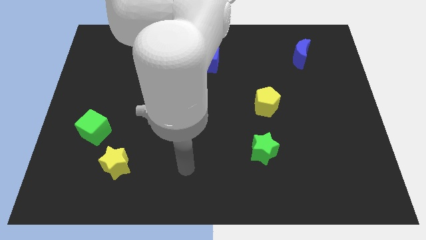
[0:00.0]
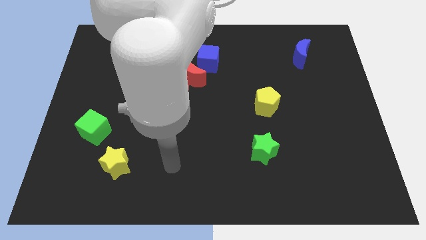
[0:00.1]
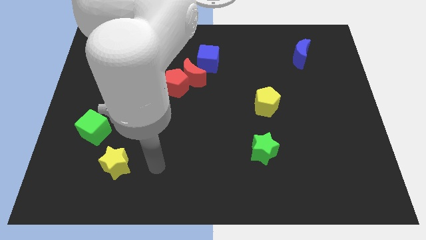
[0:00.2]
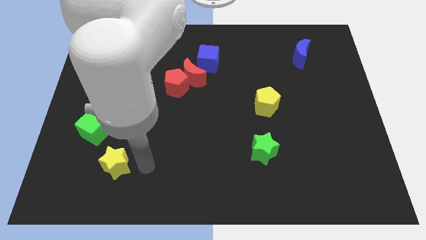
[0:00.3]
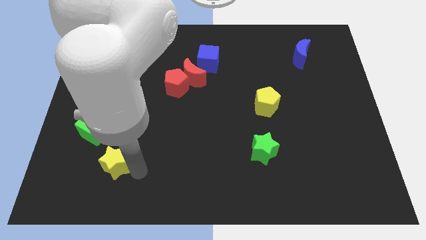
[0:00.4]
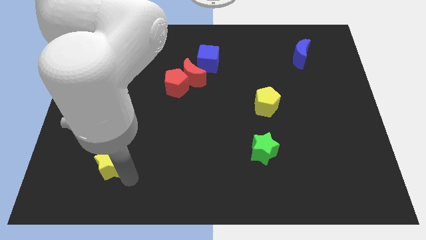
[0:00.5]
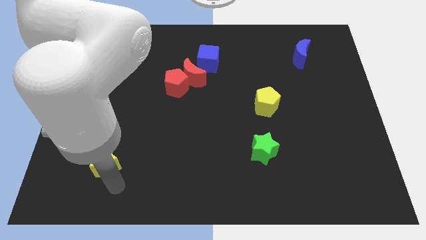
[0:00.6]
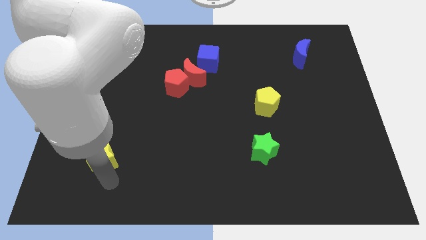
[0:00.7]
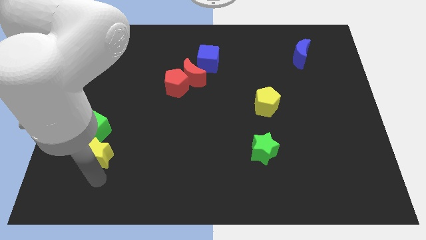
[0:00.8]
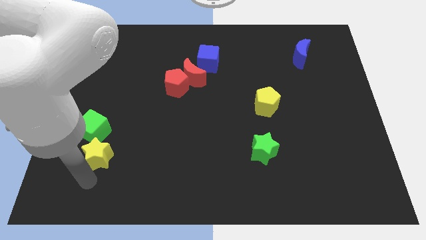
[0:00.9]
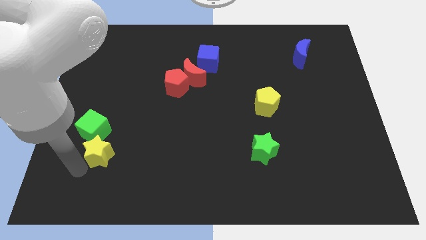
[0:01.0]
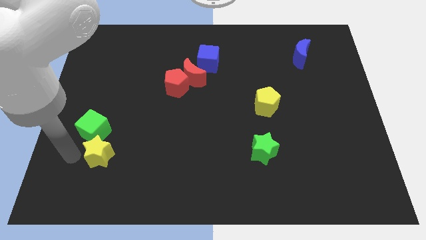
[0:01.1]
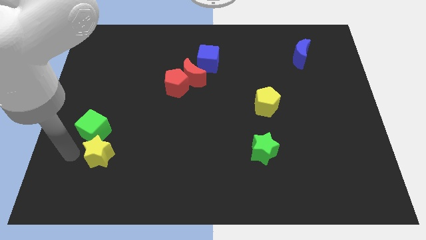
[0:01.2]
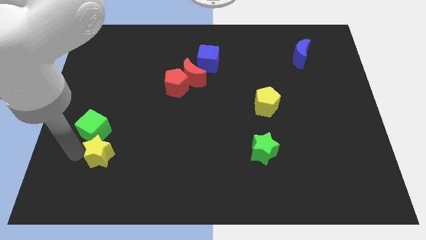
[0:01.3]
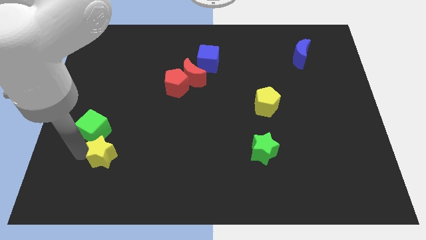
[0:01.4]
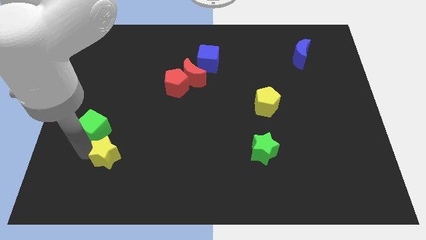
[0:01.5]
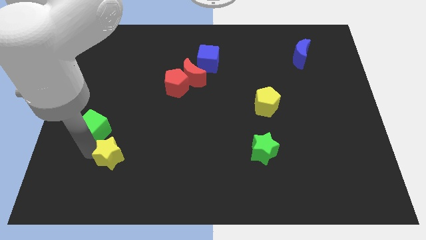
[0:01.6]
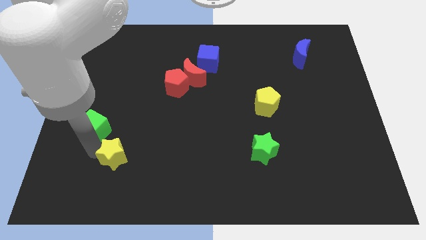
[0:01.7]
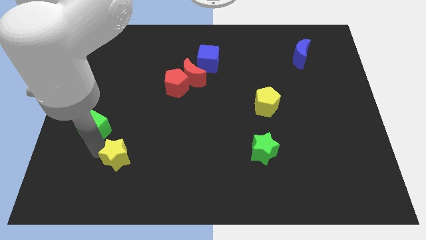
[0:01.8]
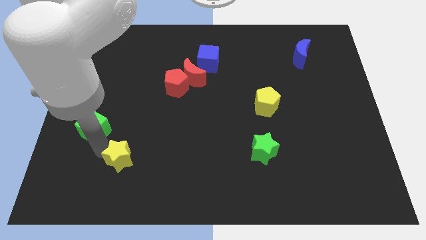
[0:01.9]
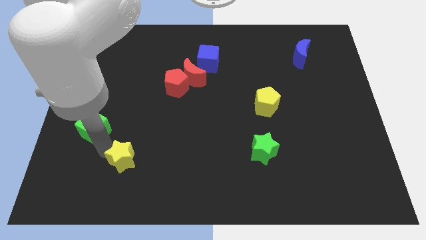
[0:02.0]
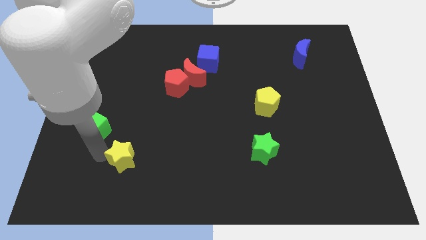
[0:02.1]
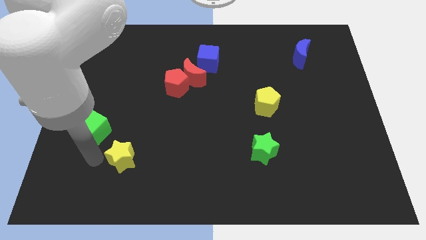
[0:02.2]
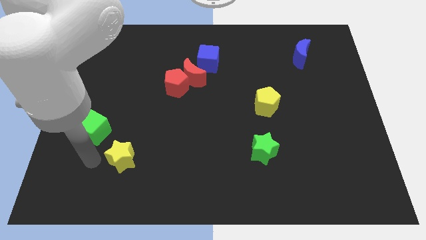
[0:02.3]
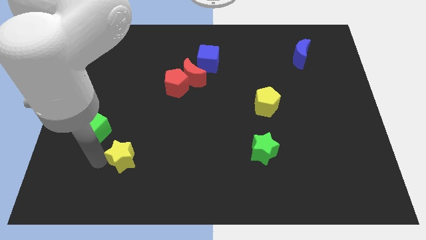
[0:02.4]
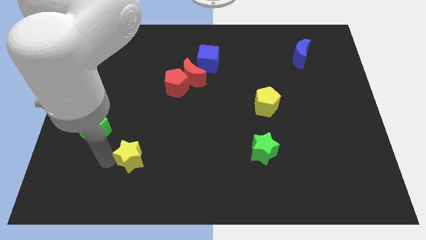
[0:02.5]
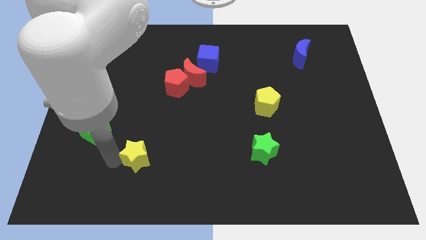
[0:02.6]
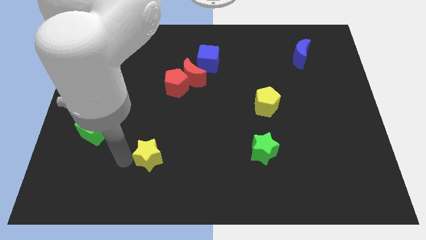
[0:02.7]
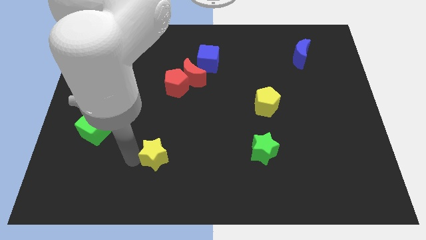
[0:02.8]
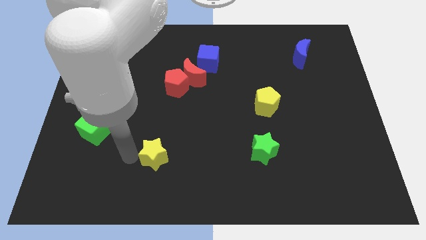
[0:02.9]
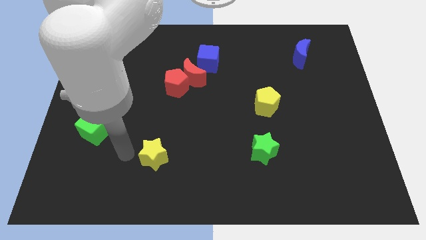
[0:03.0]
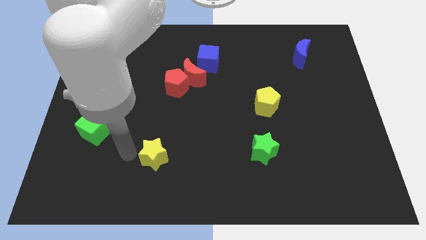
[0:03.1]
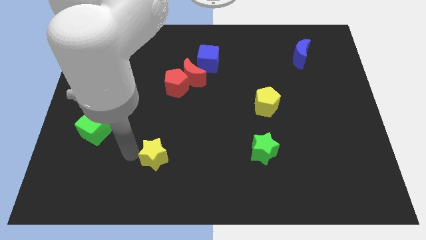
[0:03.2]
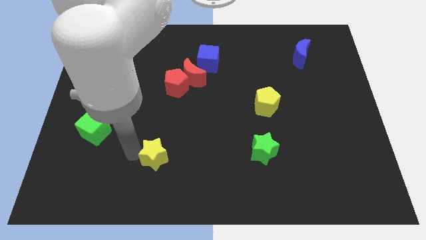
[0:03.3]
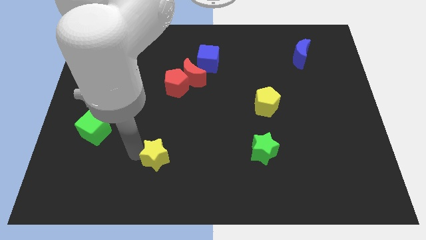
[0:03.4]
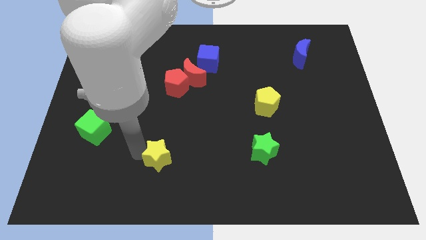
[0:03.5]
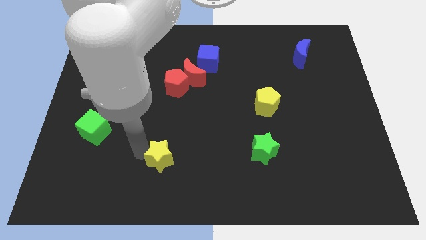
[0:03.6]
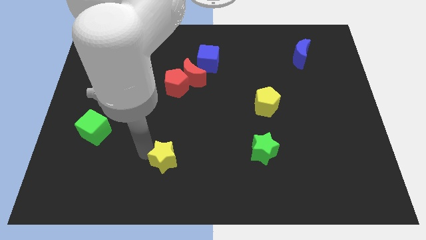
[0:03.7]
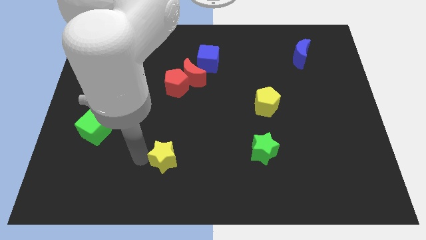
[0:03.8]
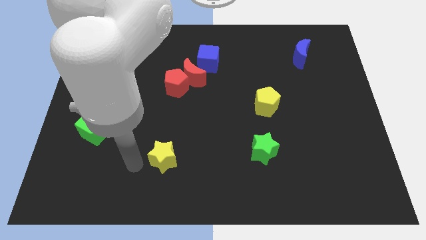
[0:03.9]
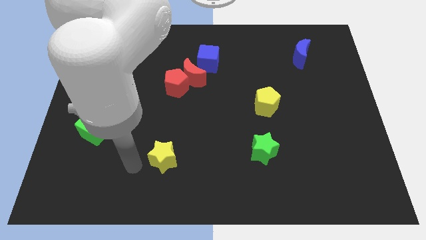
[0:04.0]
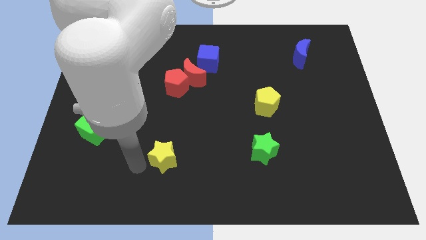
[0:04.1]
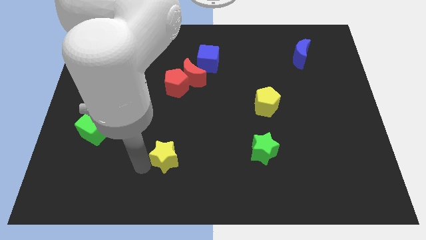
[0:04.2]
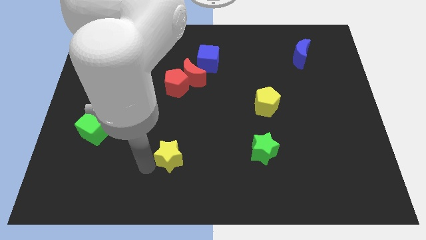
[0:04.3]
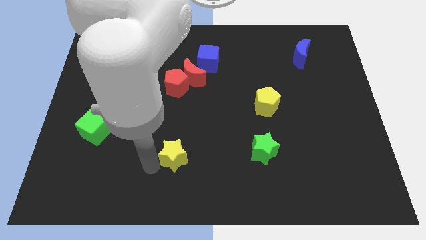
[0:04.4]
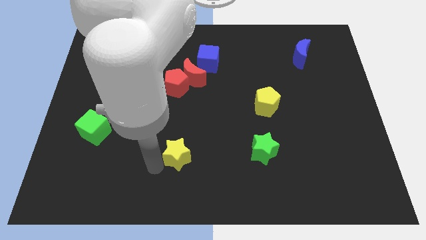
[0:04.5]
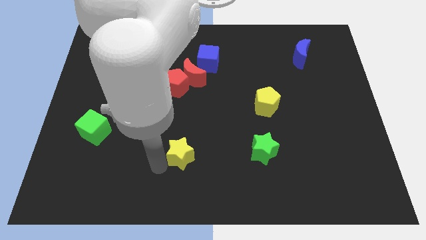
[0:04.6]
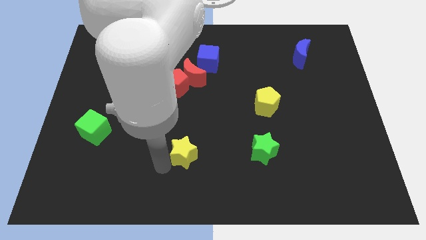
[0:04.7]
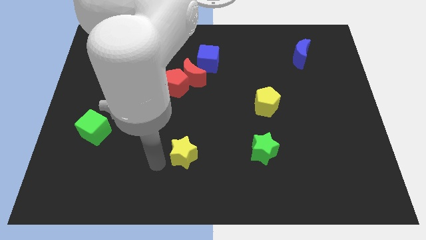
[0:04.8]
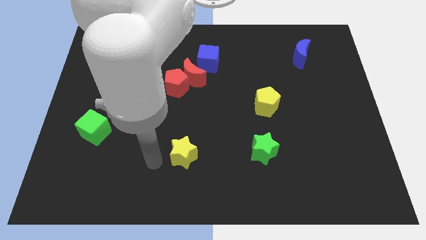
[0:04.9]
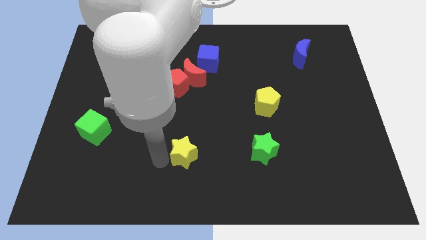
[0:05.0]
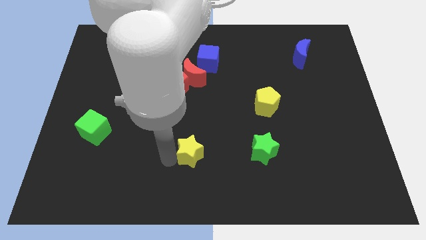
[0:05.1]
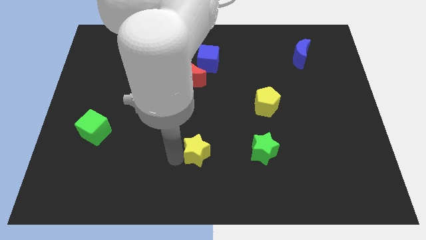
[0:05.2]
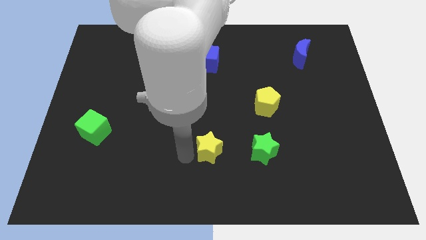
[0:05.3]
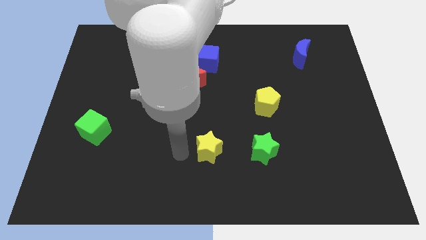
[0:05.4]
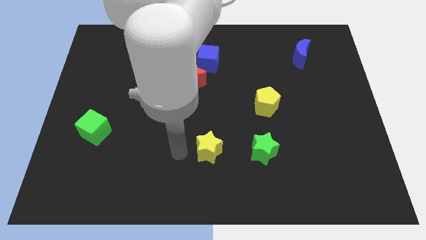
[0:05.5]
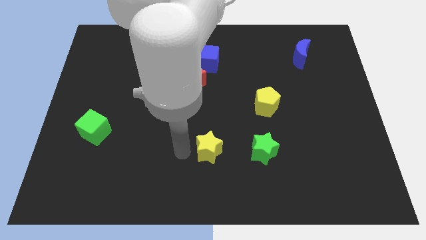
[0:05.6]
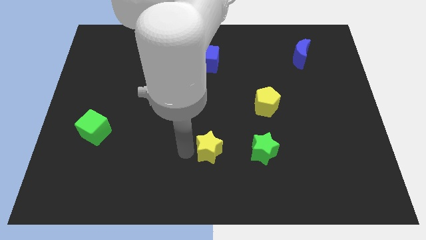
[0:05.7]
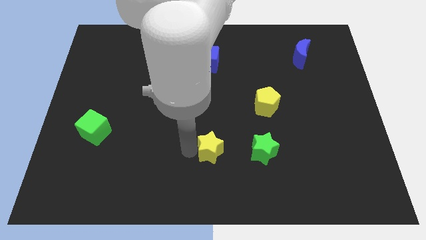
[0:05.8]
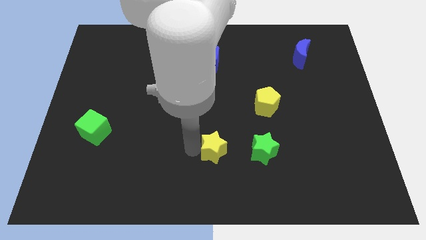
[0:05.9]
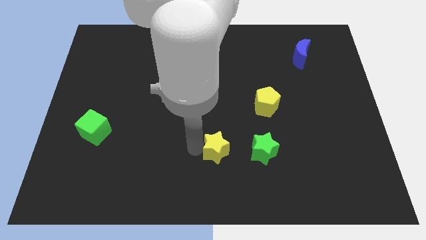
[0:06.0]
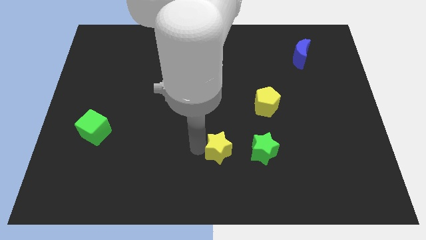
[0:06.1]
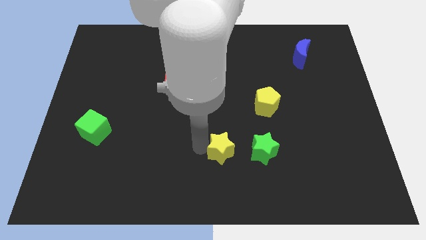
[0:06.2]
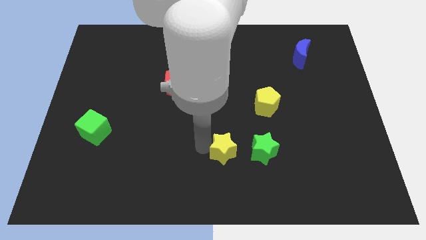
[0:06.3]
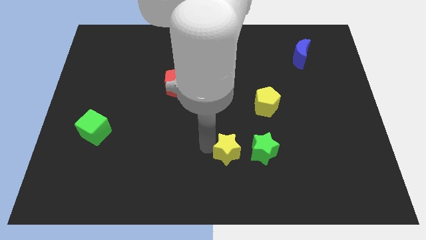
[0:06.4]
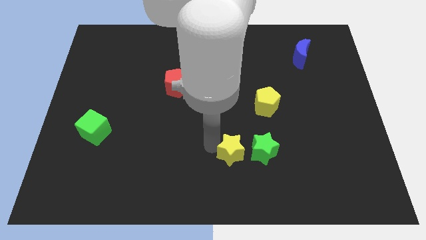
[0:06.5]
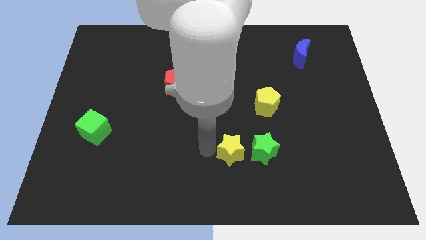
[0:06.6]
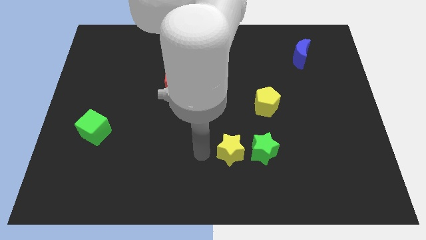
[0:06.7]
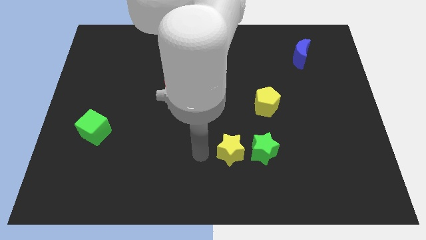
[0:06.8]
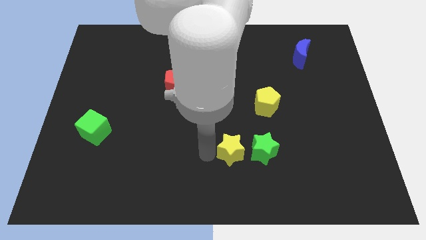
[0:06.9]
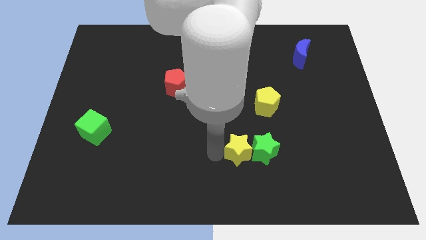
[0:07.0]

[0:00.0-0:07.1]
slide the yellow star next to the green star
